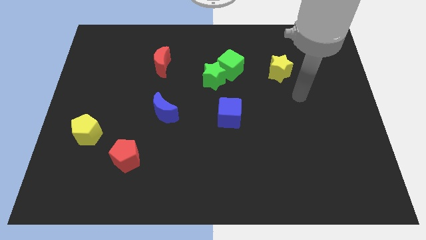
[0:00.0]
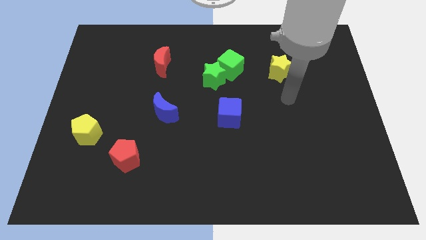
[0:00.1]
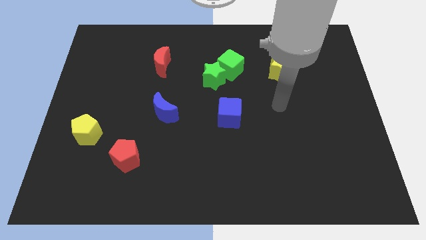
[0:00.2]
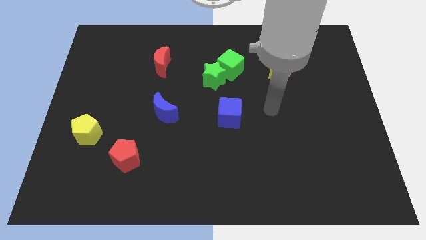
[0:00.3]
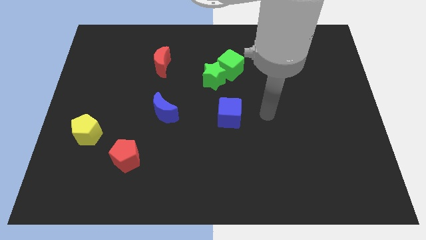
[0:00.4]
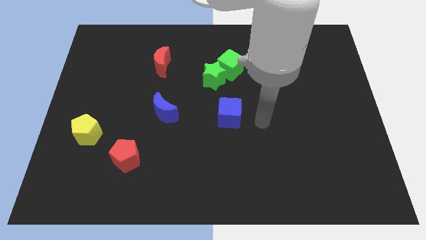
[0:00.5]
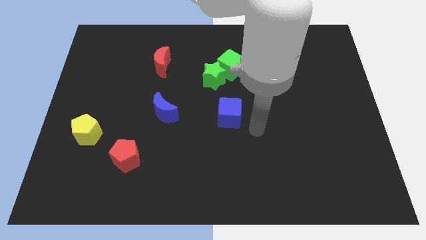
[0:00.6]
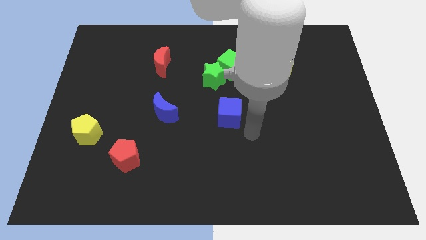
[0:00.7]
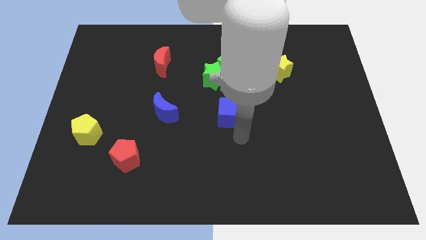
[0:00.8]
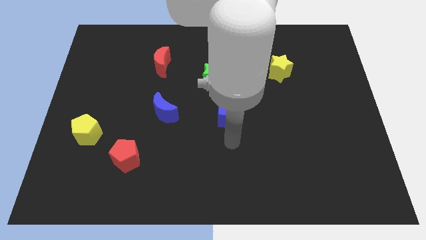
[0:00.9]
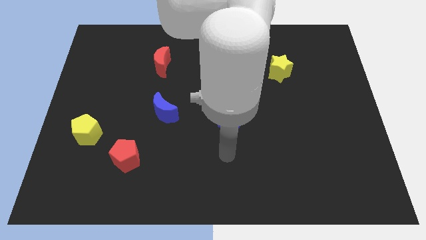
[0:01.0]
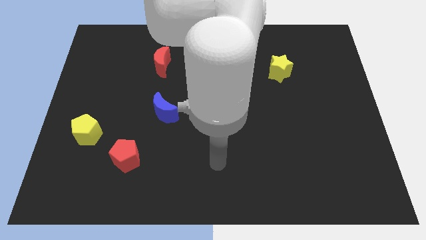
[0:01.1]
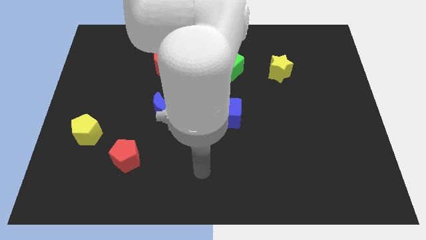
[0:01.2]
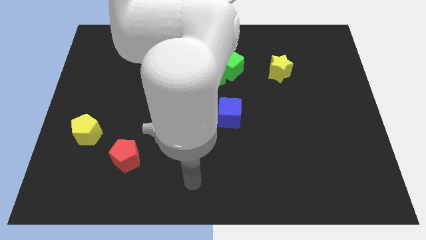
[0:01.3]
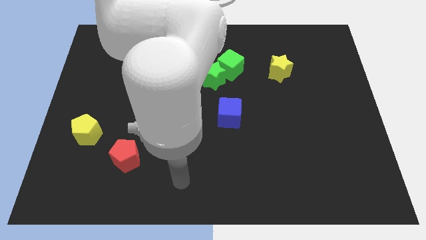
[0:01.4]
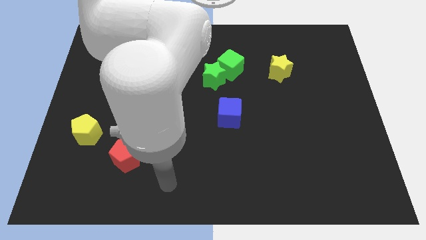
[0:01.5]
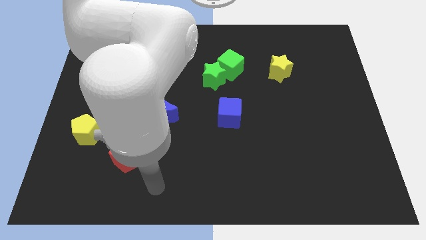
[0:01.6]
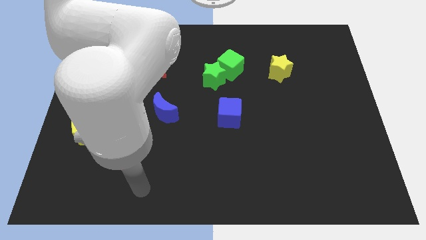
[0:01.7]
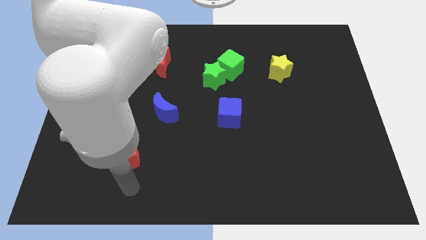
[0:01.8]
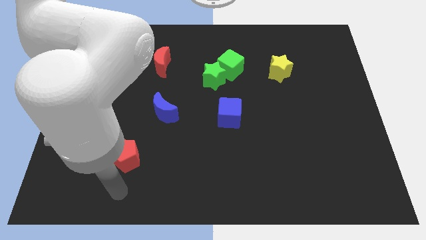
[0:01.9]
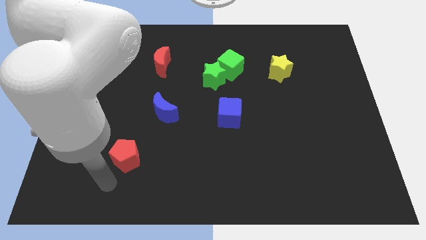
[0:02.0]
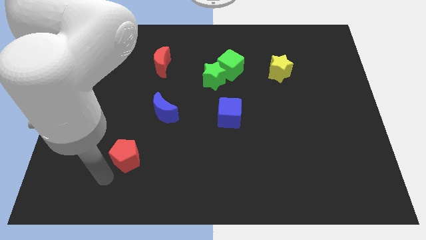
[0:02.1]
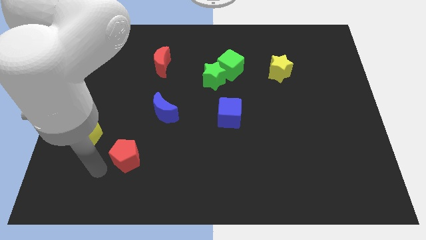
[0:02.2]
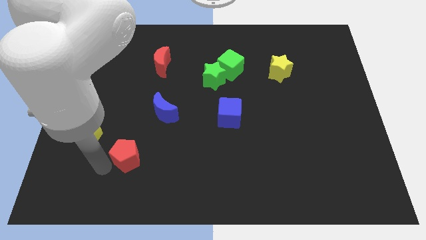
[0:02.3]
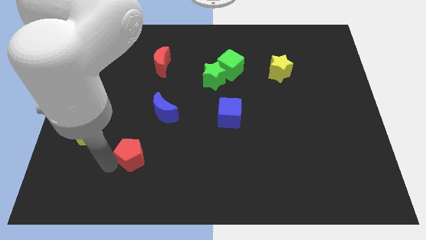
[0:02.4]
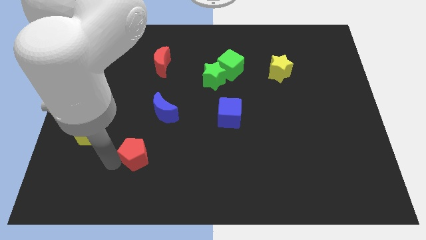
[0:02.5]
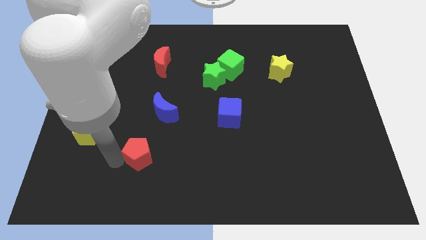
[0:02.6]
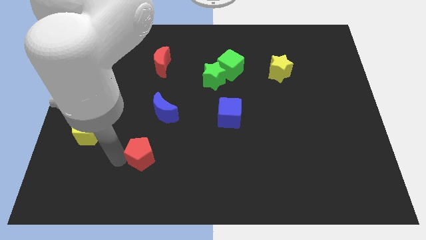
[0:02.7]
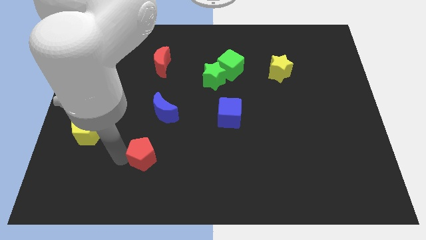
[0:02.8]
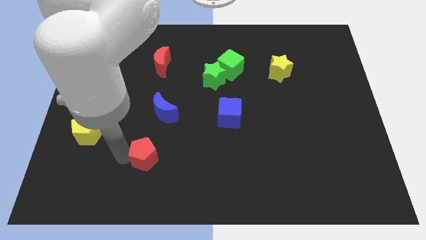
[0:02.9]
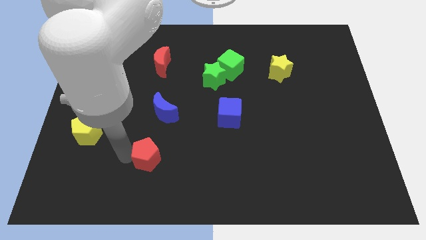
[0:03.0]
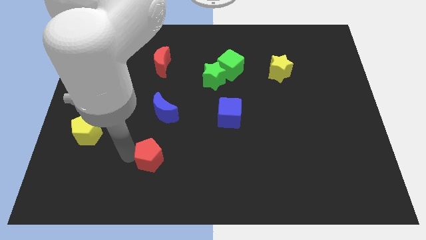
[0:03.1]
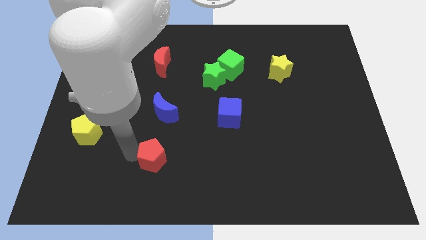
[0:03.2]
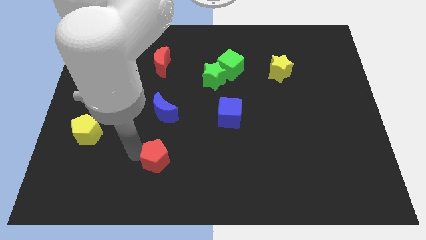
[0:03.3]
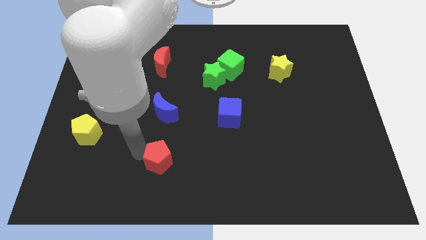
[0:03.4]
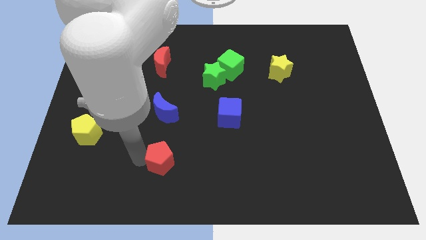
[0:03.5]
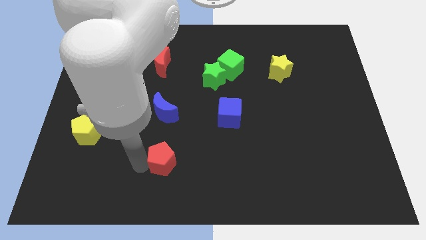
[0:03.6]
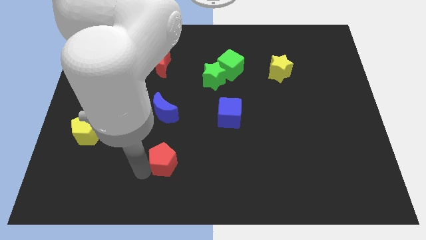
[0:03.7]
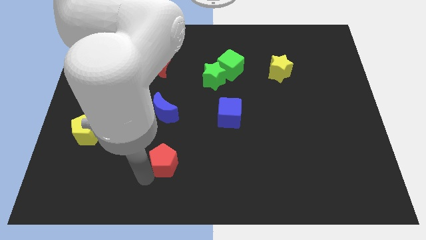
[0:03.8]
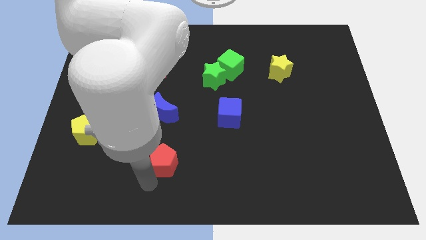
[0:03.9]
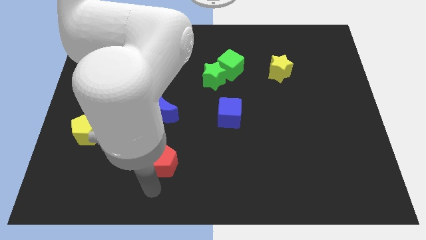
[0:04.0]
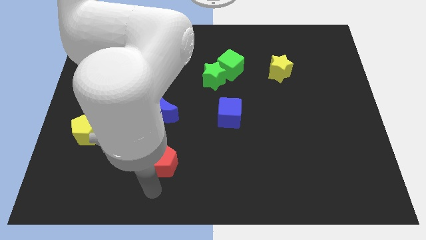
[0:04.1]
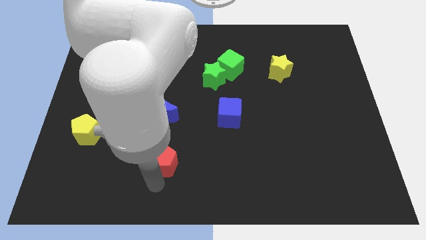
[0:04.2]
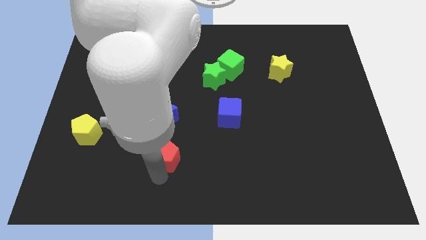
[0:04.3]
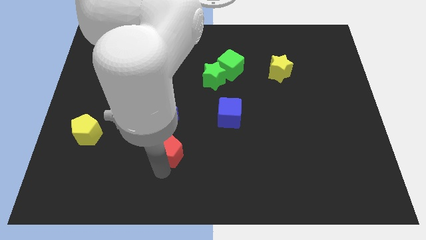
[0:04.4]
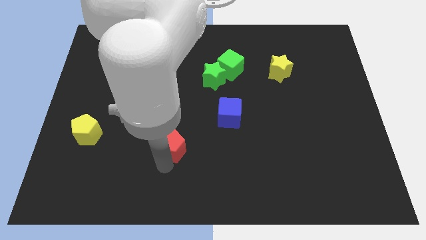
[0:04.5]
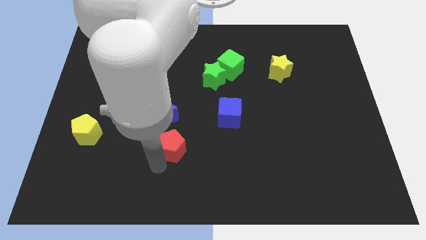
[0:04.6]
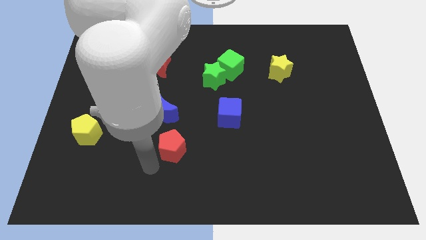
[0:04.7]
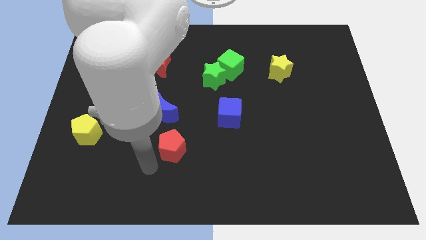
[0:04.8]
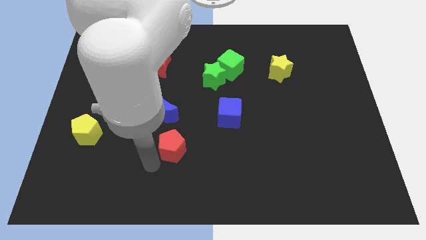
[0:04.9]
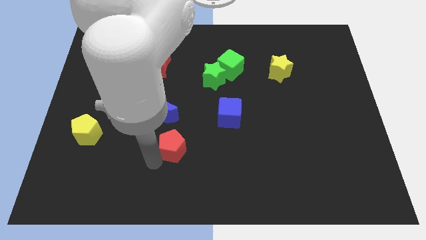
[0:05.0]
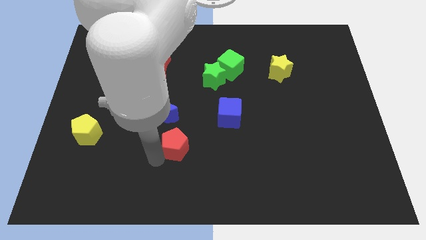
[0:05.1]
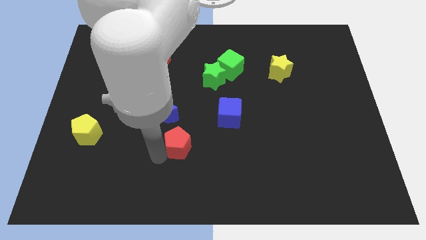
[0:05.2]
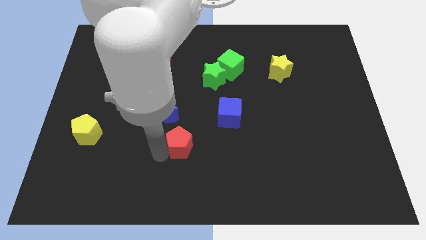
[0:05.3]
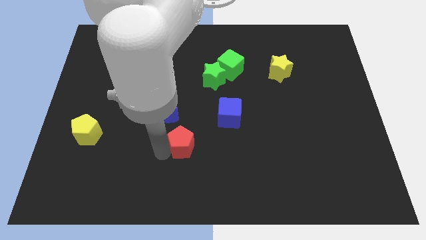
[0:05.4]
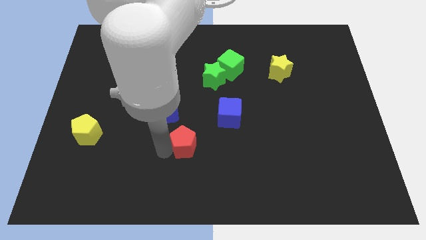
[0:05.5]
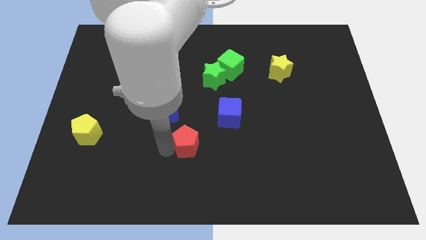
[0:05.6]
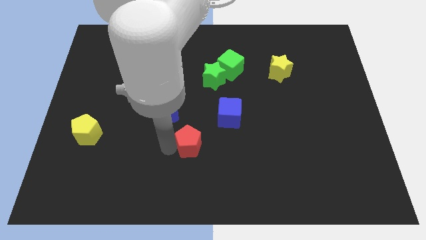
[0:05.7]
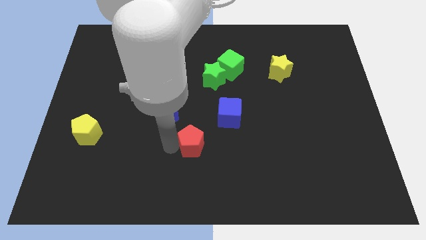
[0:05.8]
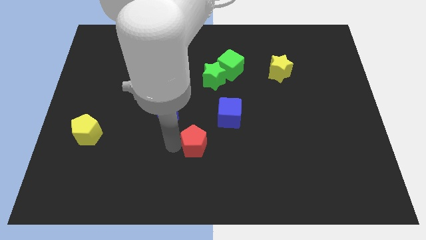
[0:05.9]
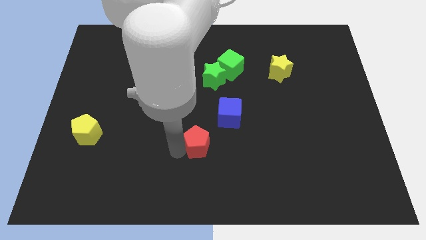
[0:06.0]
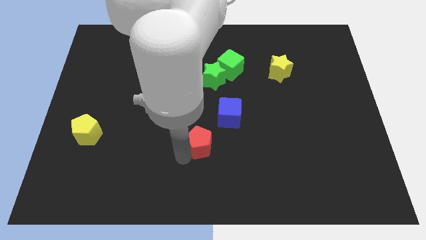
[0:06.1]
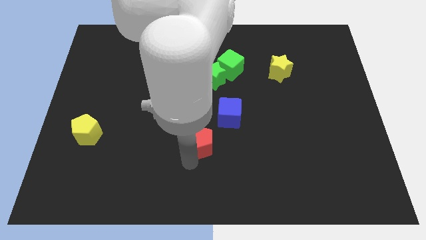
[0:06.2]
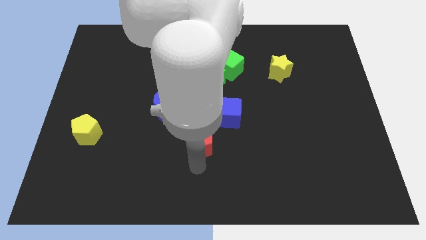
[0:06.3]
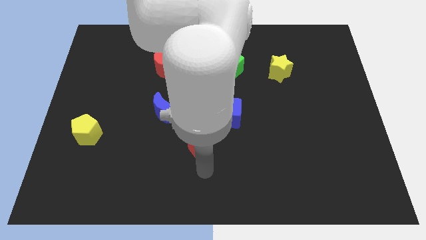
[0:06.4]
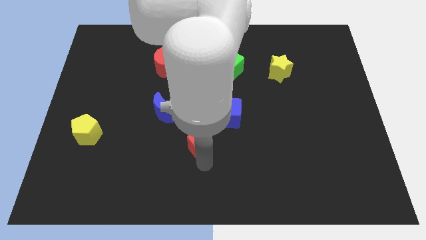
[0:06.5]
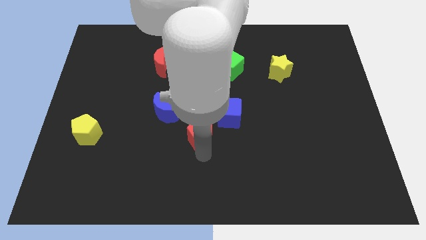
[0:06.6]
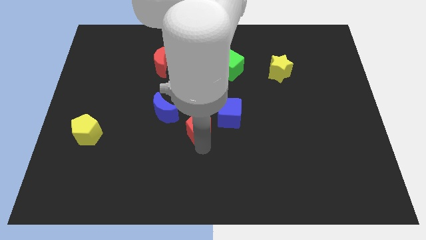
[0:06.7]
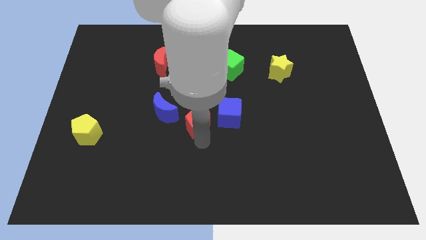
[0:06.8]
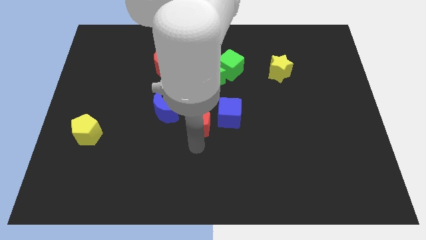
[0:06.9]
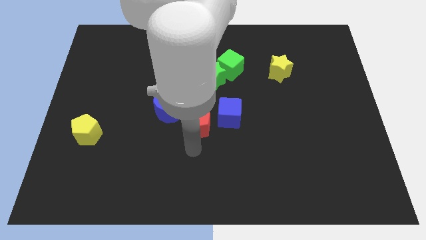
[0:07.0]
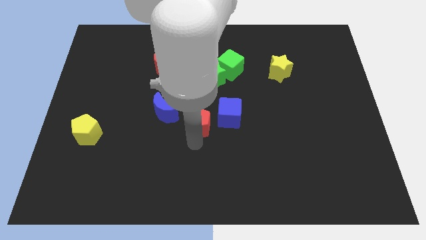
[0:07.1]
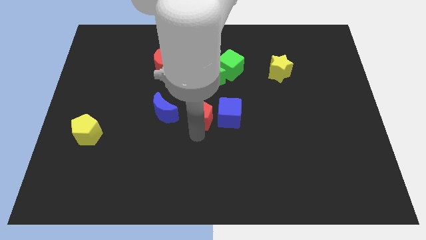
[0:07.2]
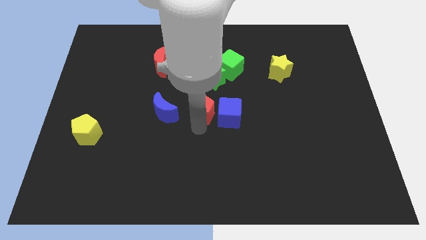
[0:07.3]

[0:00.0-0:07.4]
slide the red pentagon to the top left of the blue cube
